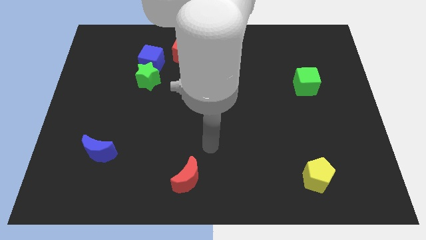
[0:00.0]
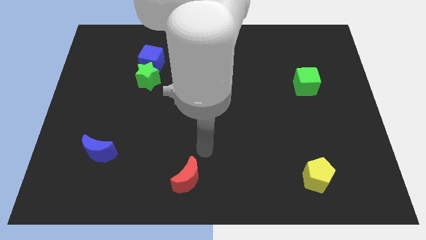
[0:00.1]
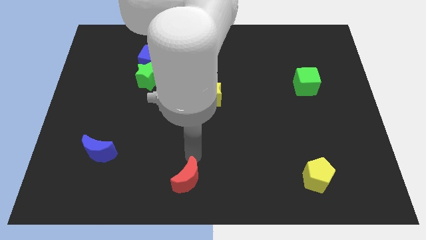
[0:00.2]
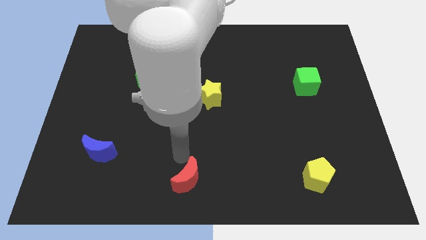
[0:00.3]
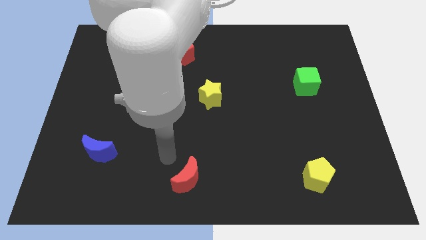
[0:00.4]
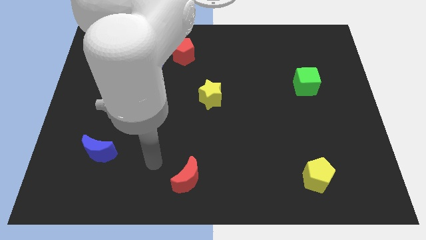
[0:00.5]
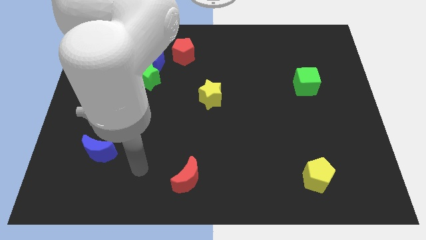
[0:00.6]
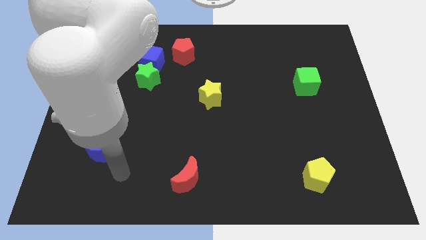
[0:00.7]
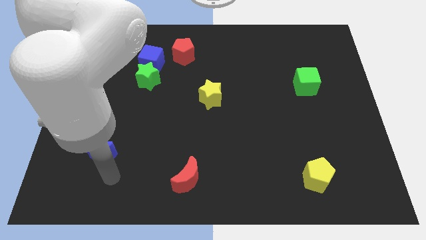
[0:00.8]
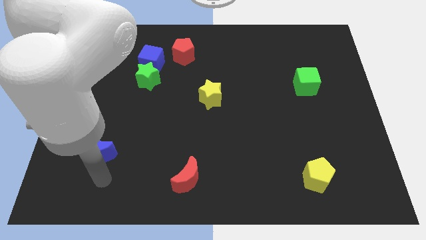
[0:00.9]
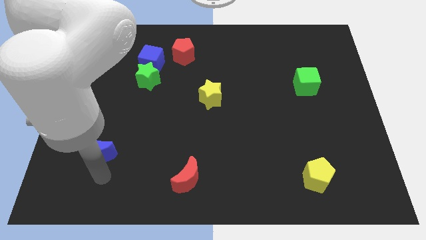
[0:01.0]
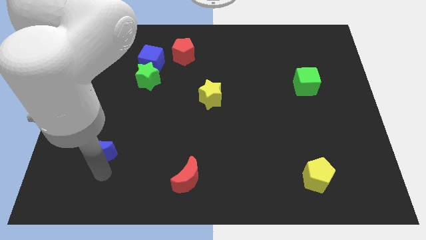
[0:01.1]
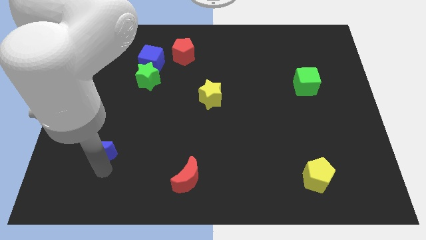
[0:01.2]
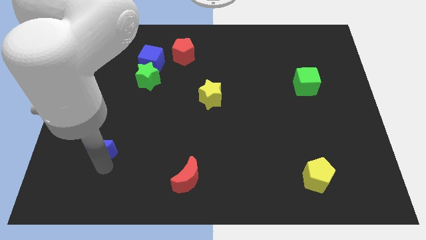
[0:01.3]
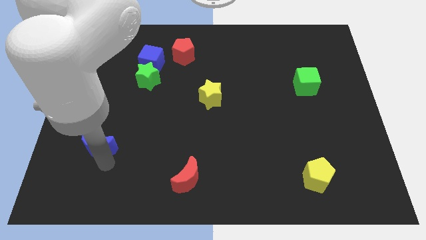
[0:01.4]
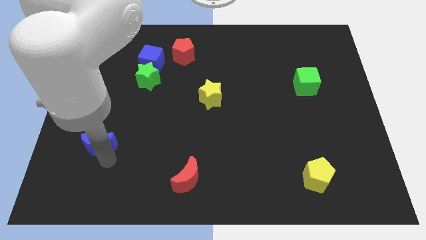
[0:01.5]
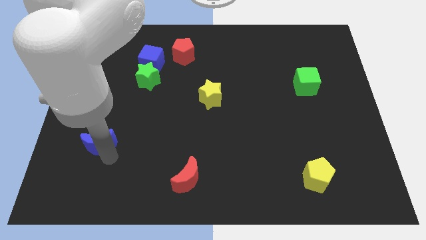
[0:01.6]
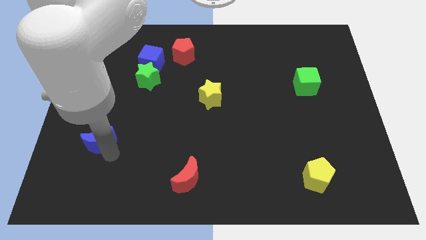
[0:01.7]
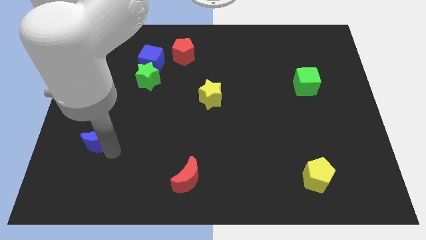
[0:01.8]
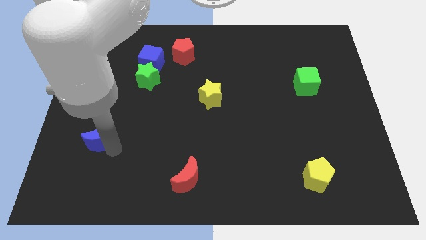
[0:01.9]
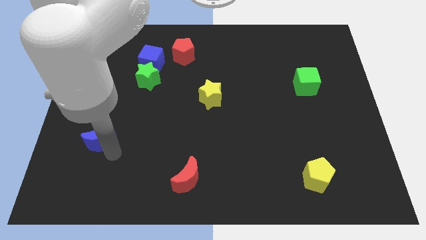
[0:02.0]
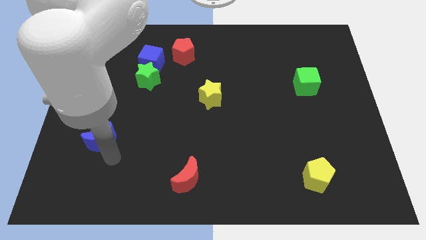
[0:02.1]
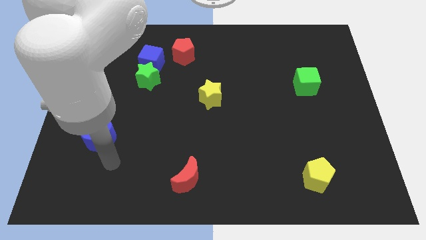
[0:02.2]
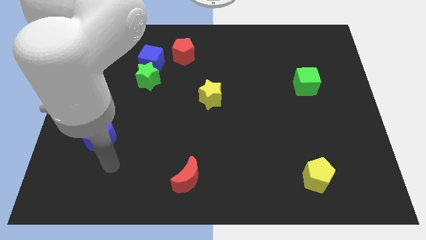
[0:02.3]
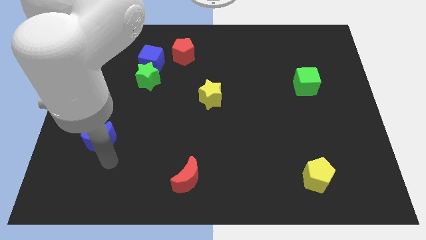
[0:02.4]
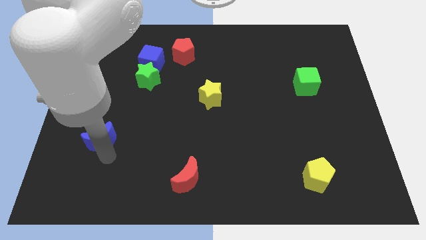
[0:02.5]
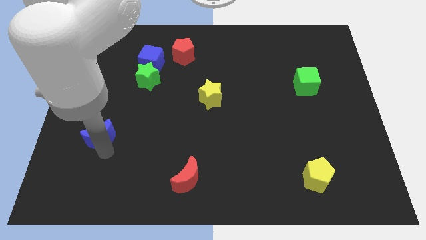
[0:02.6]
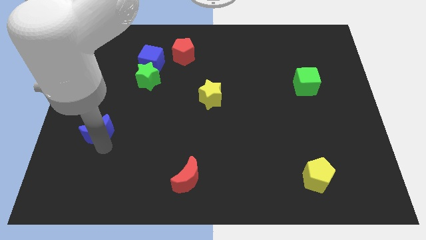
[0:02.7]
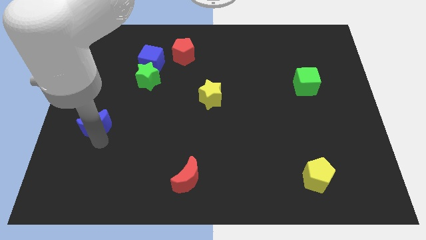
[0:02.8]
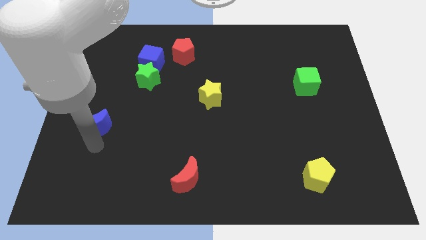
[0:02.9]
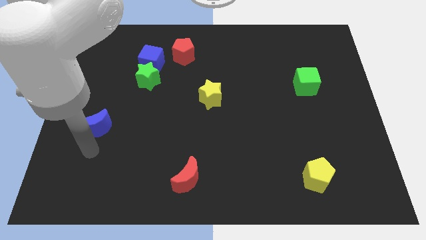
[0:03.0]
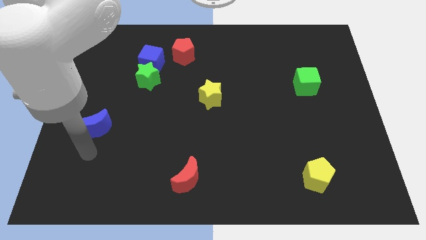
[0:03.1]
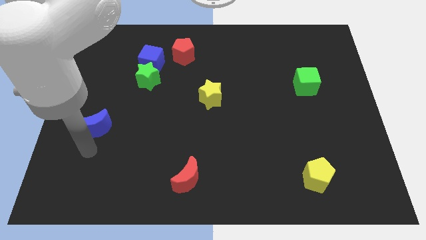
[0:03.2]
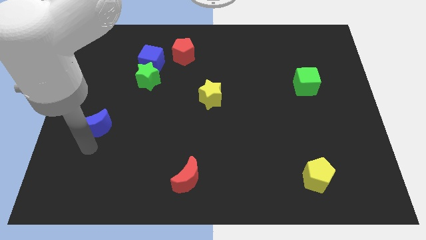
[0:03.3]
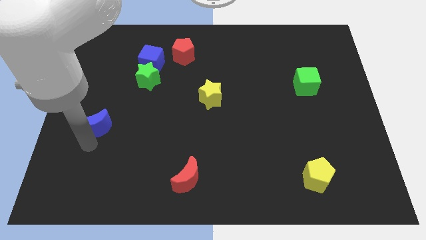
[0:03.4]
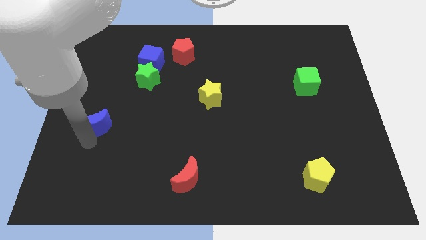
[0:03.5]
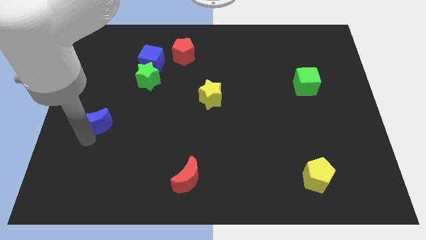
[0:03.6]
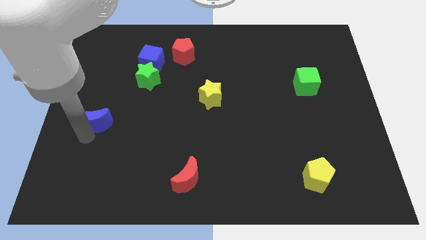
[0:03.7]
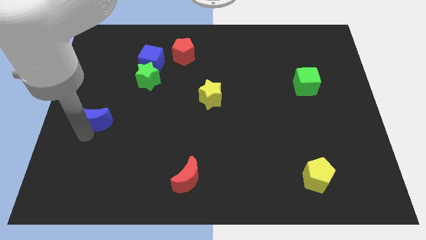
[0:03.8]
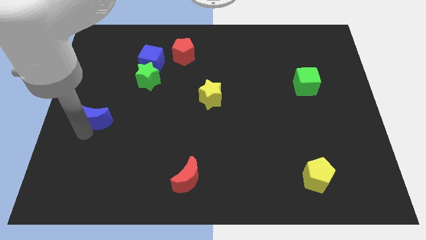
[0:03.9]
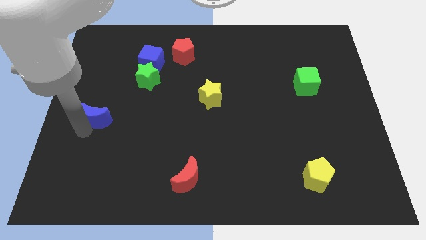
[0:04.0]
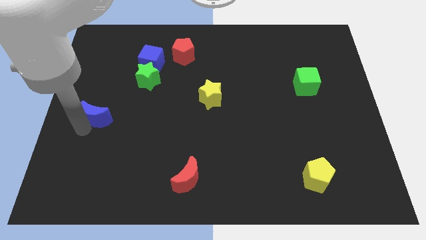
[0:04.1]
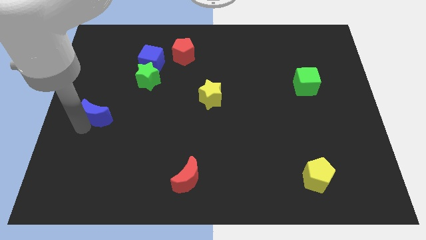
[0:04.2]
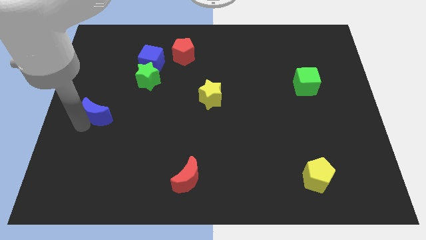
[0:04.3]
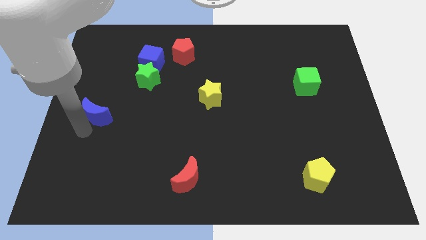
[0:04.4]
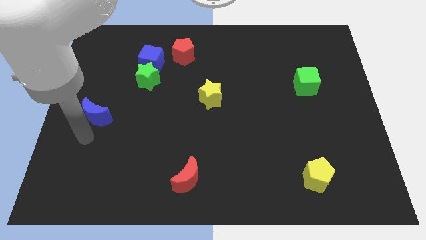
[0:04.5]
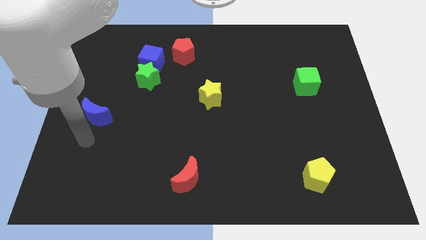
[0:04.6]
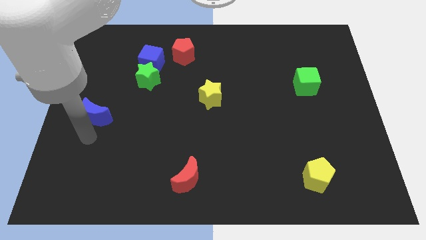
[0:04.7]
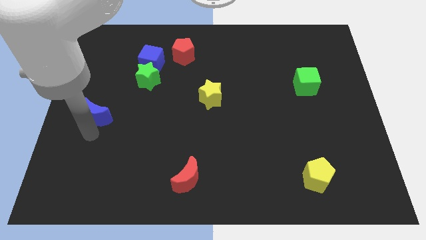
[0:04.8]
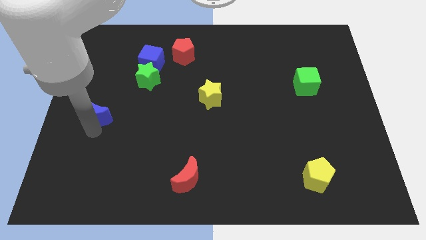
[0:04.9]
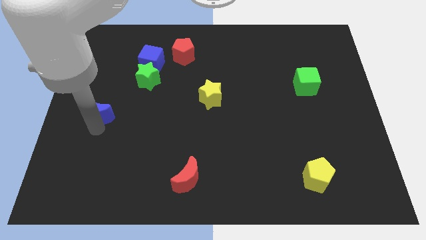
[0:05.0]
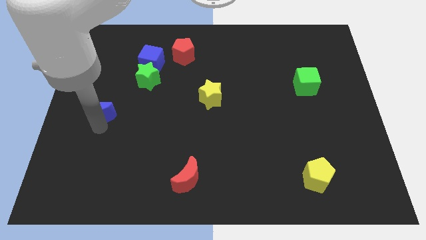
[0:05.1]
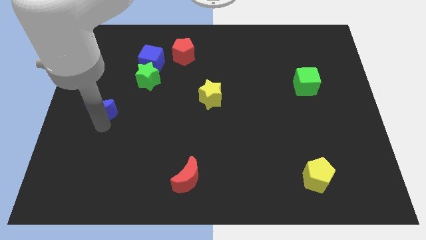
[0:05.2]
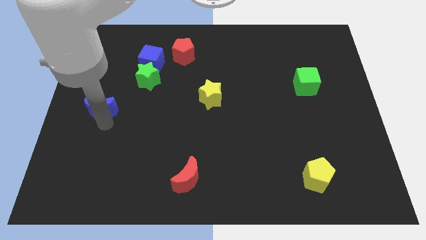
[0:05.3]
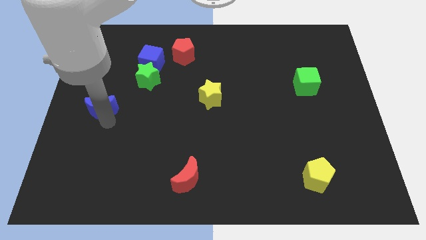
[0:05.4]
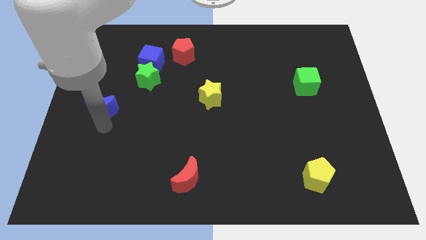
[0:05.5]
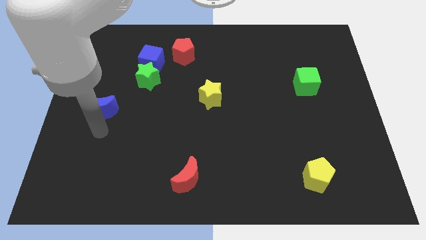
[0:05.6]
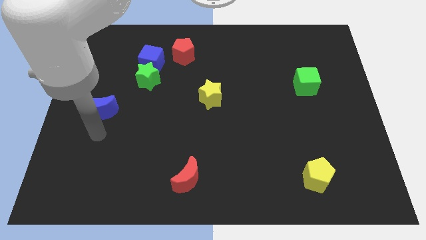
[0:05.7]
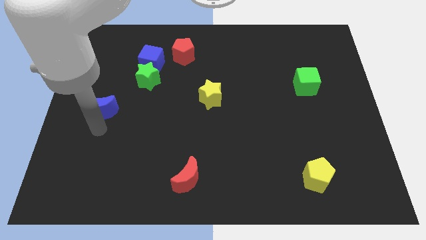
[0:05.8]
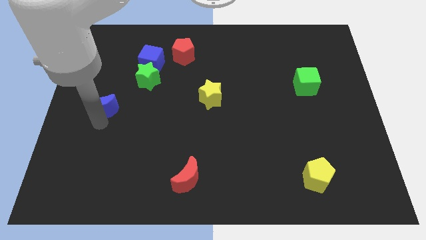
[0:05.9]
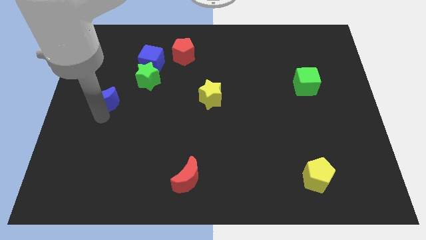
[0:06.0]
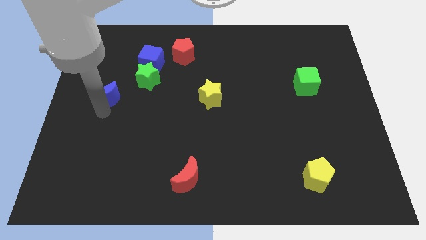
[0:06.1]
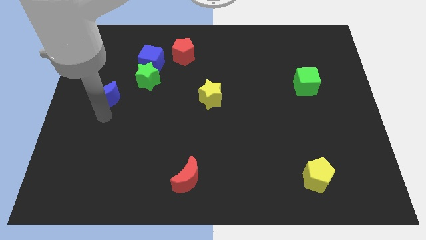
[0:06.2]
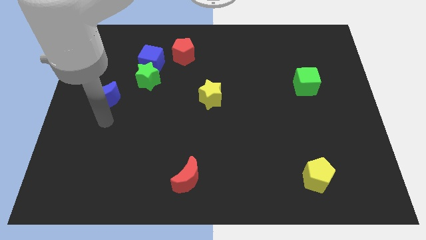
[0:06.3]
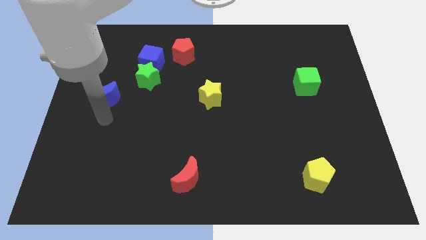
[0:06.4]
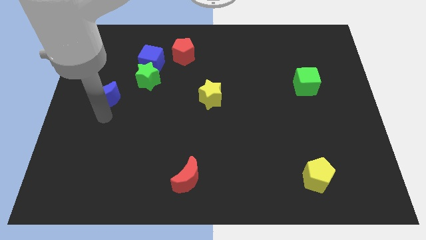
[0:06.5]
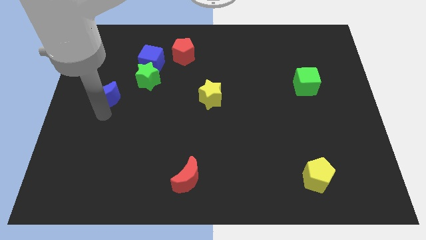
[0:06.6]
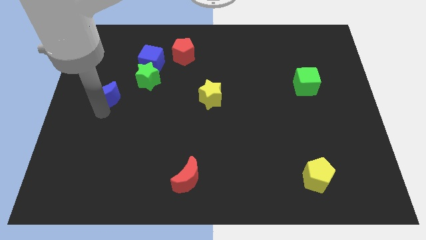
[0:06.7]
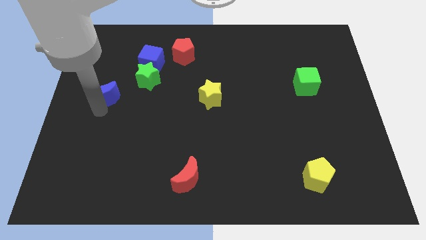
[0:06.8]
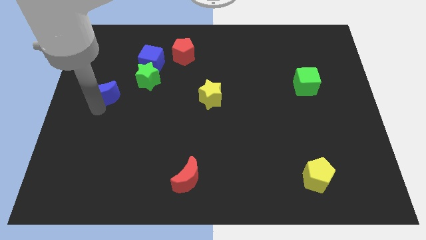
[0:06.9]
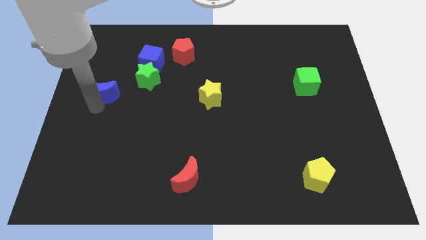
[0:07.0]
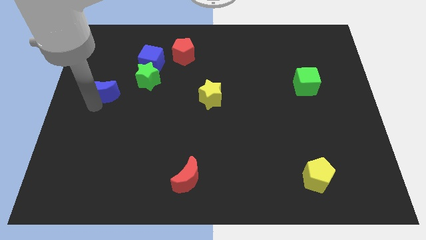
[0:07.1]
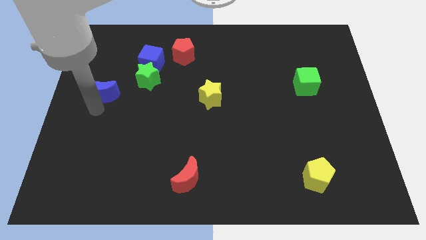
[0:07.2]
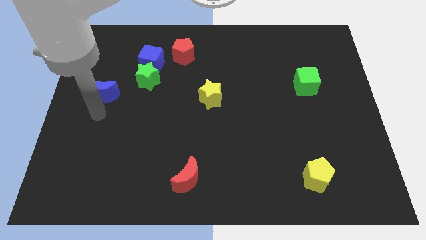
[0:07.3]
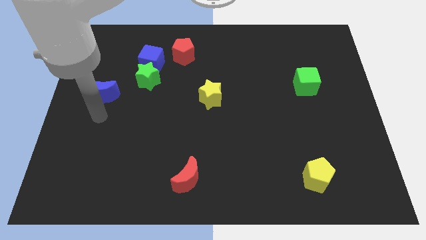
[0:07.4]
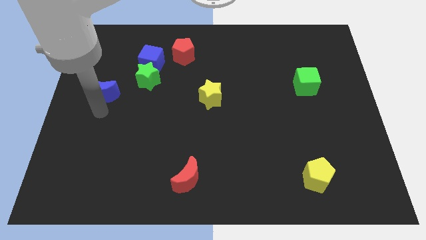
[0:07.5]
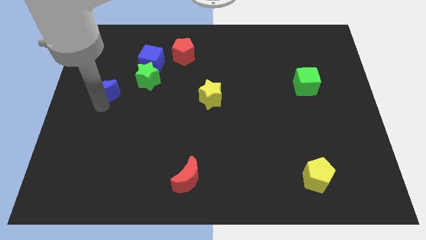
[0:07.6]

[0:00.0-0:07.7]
slide the blue moon just left of the green star
